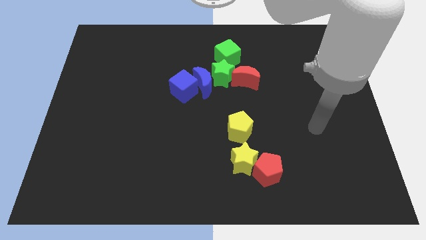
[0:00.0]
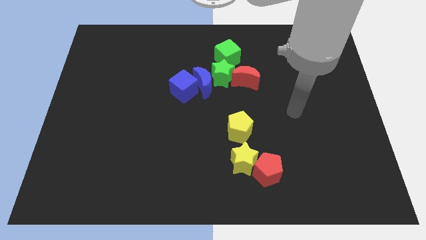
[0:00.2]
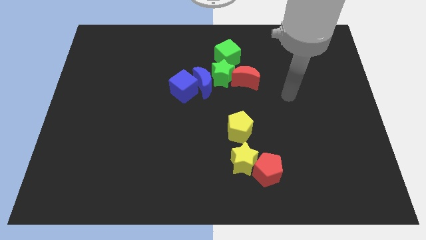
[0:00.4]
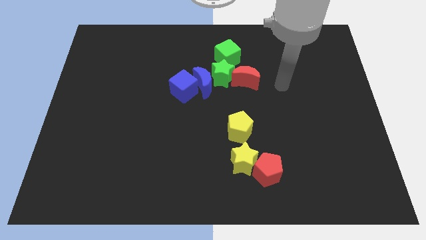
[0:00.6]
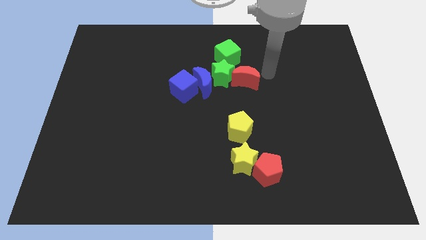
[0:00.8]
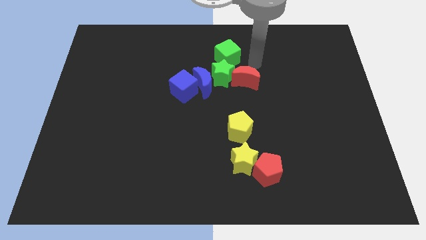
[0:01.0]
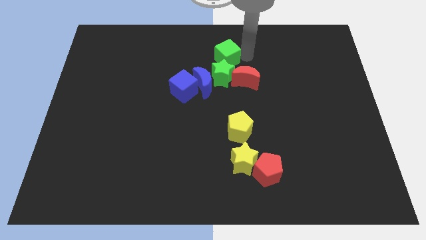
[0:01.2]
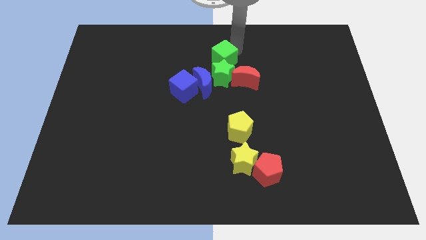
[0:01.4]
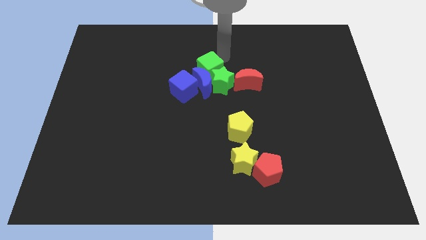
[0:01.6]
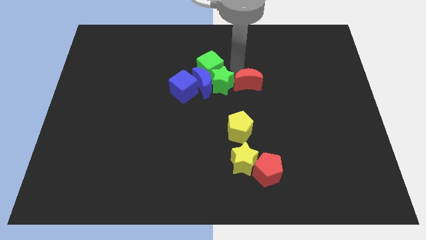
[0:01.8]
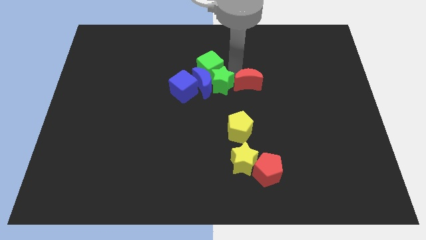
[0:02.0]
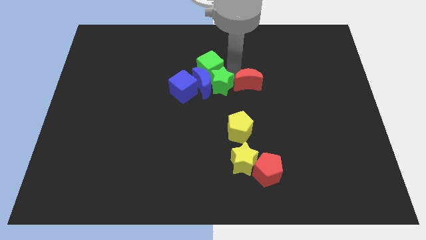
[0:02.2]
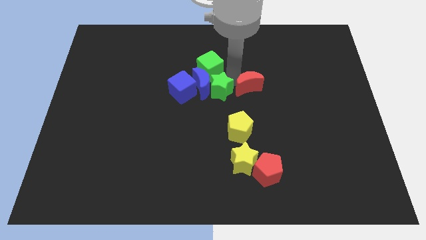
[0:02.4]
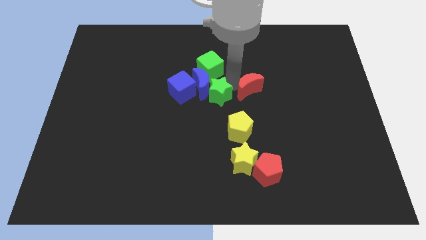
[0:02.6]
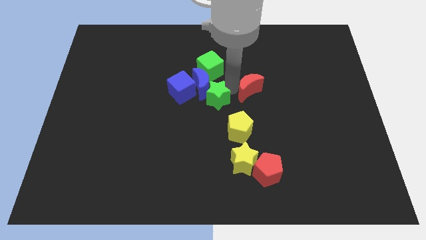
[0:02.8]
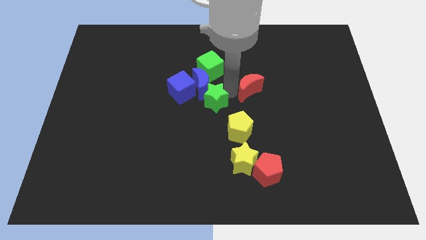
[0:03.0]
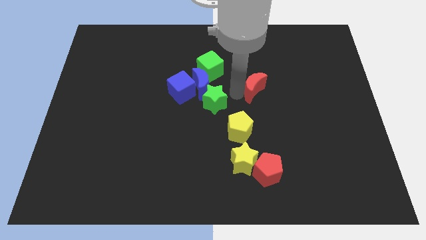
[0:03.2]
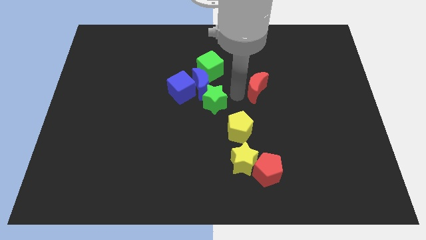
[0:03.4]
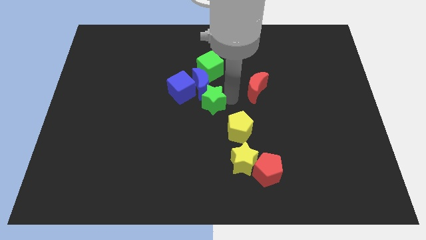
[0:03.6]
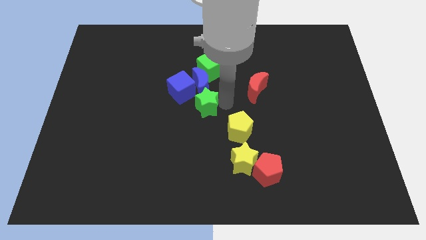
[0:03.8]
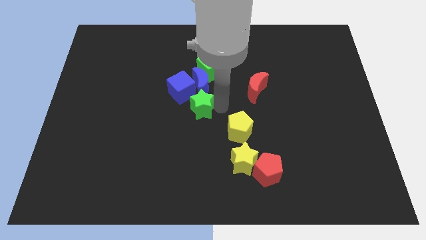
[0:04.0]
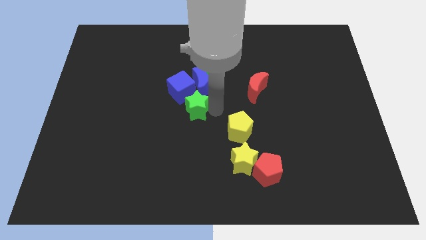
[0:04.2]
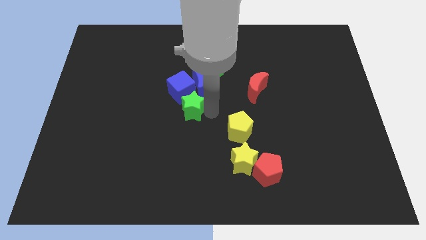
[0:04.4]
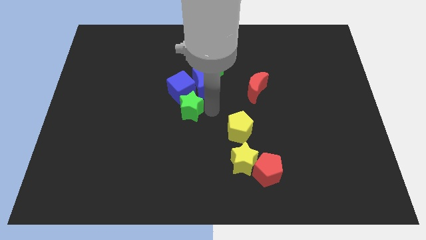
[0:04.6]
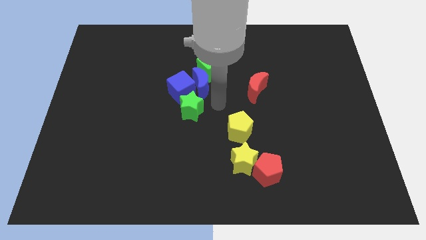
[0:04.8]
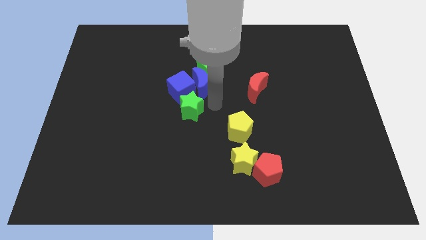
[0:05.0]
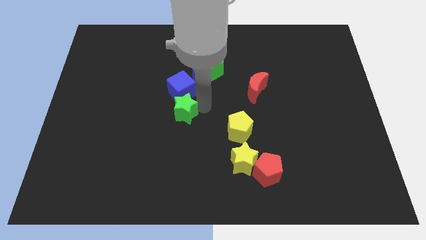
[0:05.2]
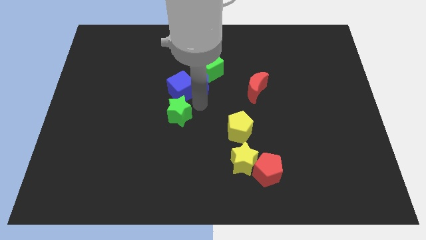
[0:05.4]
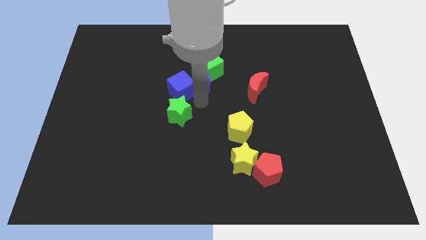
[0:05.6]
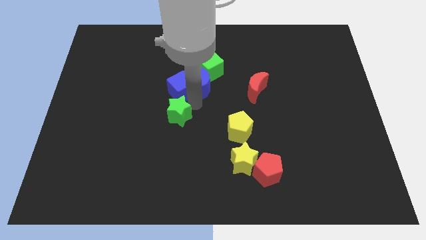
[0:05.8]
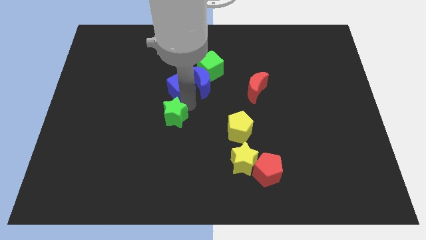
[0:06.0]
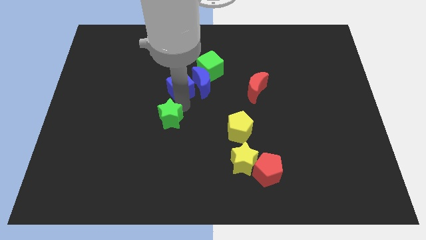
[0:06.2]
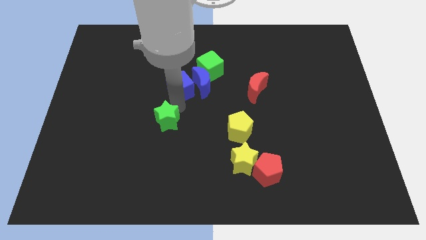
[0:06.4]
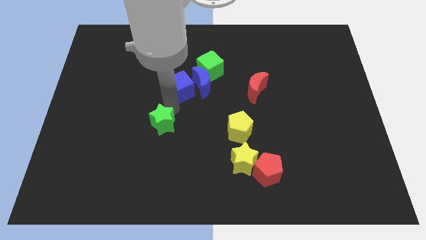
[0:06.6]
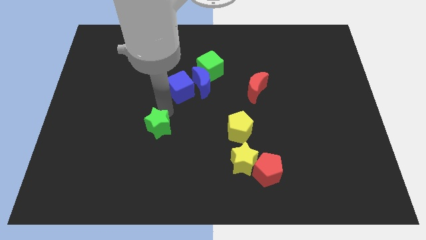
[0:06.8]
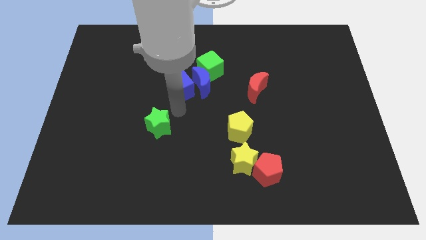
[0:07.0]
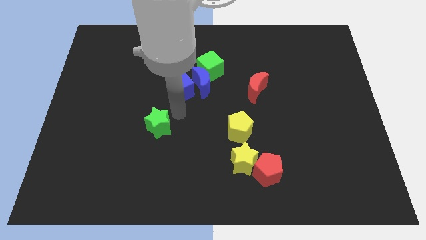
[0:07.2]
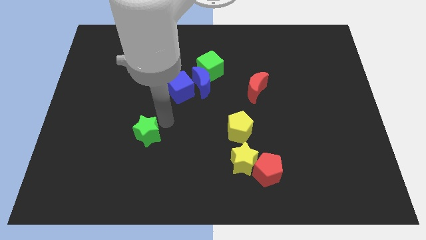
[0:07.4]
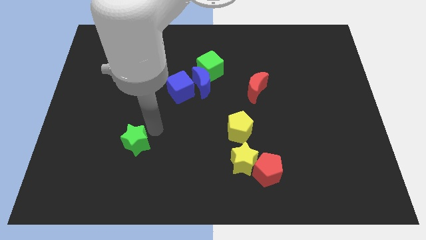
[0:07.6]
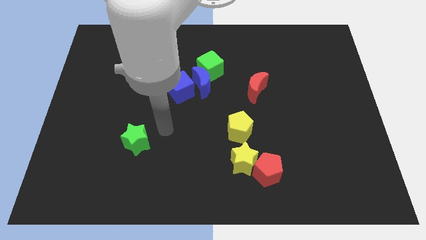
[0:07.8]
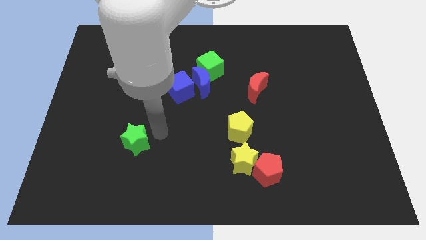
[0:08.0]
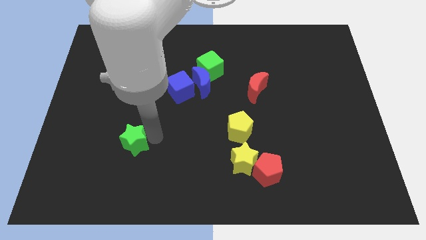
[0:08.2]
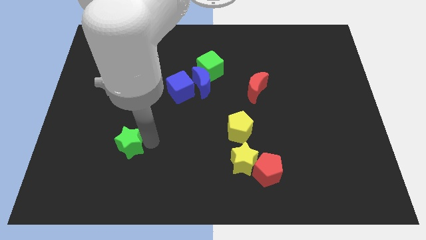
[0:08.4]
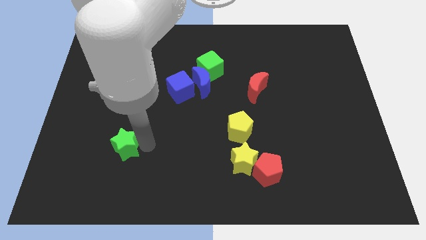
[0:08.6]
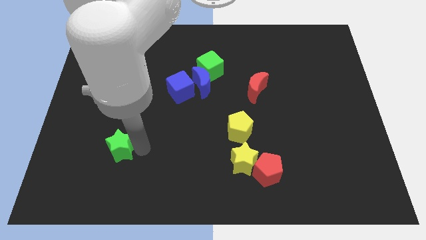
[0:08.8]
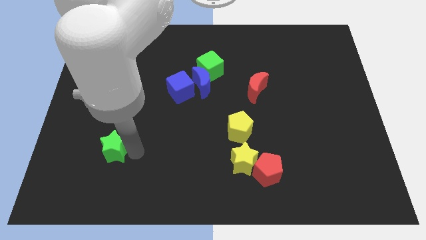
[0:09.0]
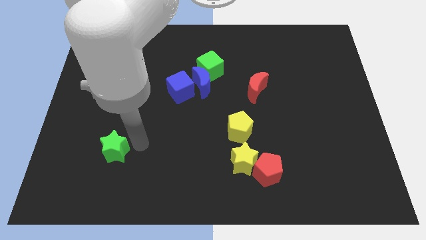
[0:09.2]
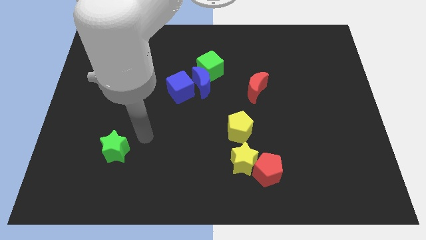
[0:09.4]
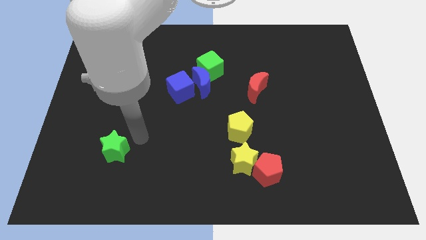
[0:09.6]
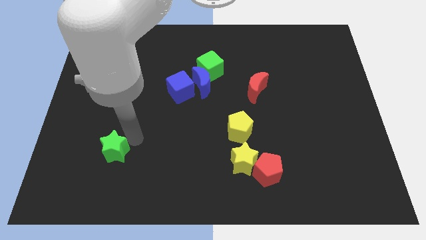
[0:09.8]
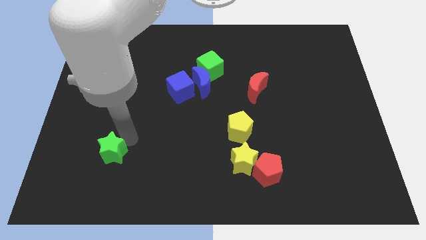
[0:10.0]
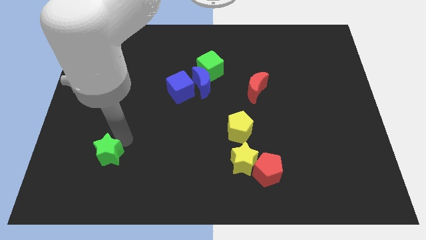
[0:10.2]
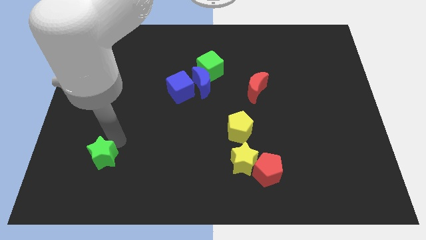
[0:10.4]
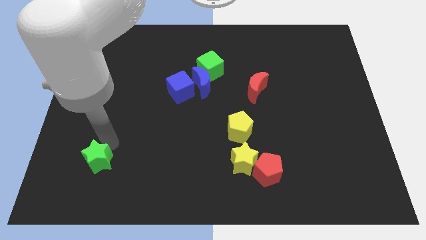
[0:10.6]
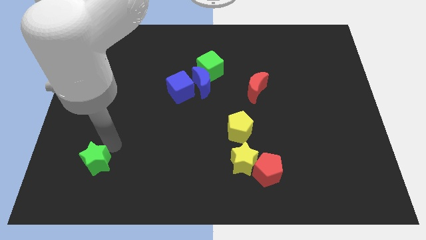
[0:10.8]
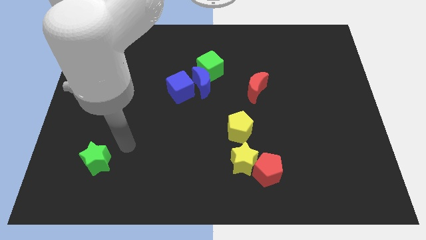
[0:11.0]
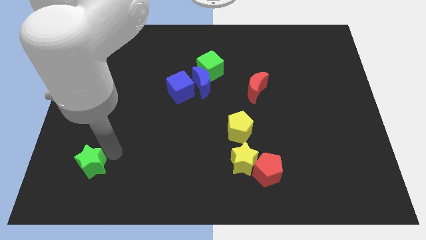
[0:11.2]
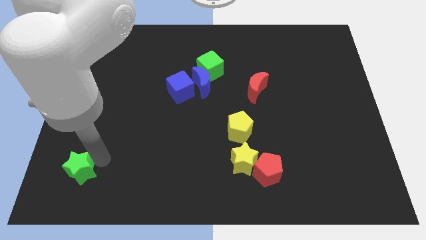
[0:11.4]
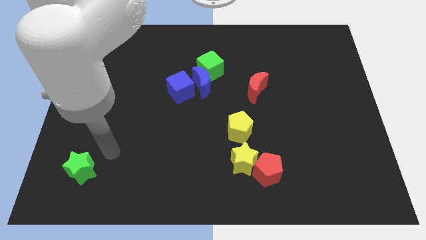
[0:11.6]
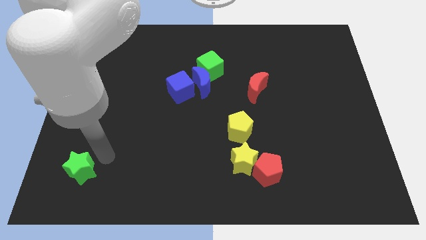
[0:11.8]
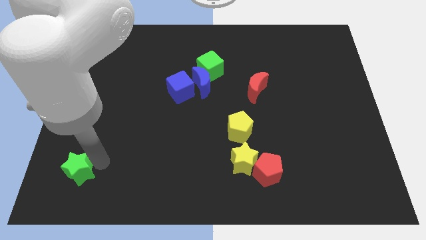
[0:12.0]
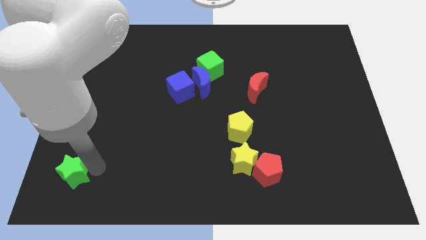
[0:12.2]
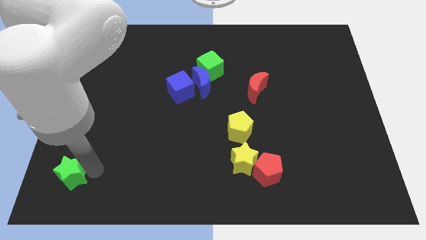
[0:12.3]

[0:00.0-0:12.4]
put the green star to the lower left corner
